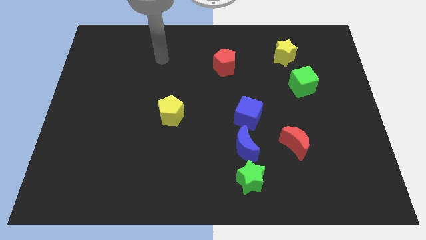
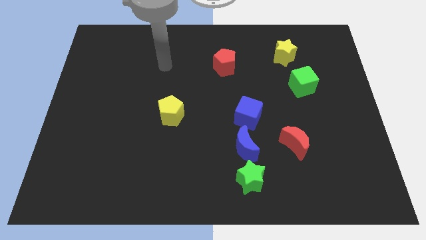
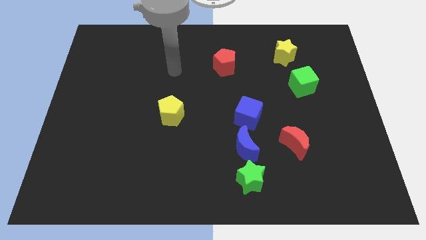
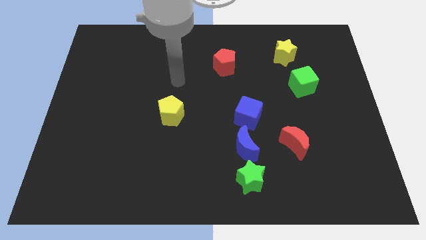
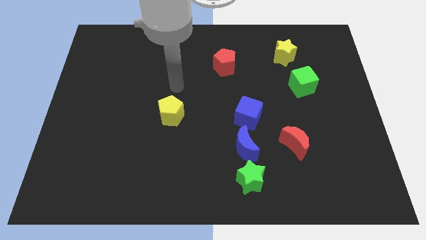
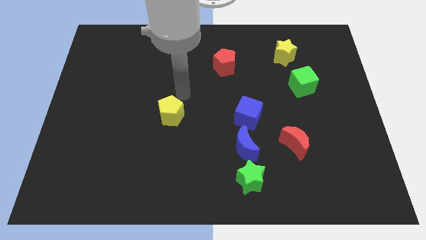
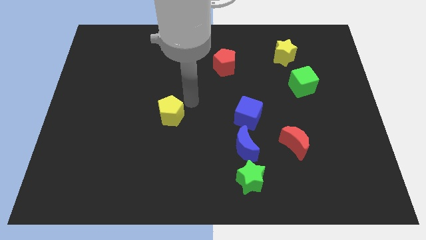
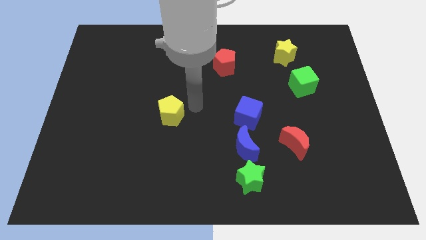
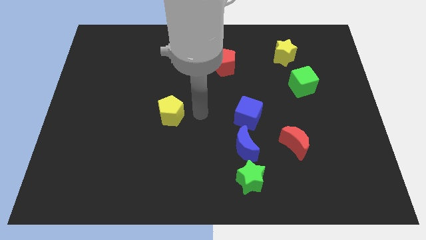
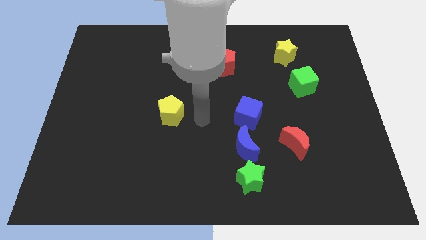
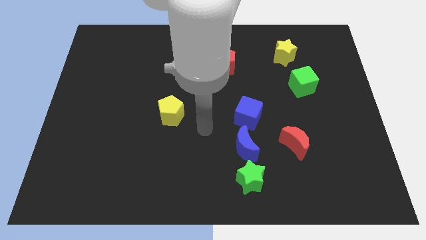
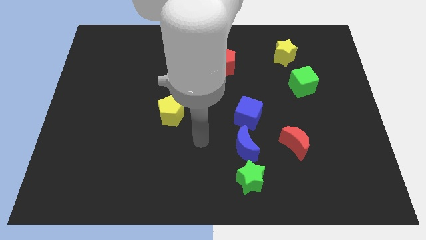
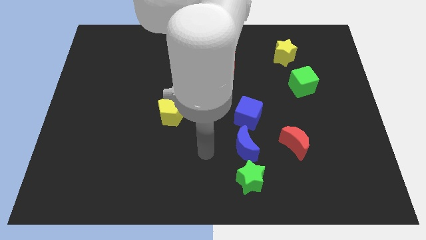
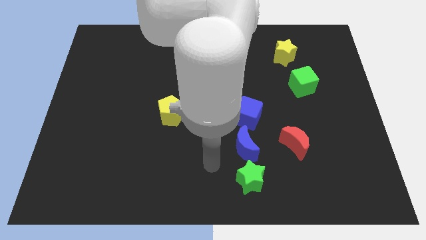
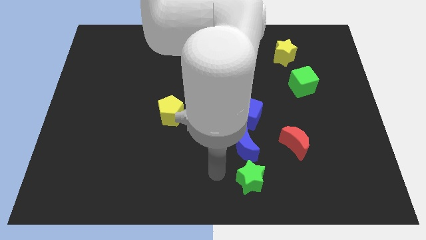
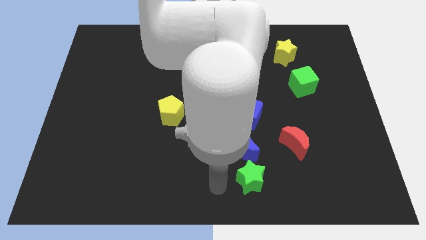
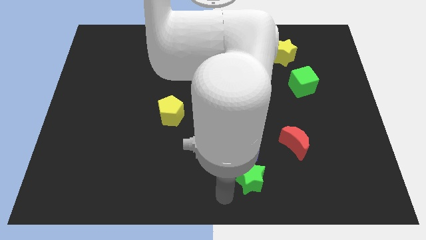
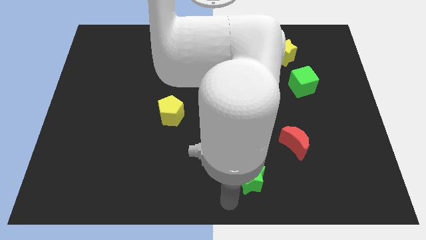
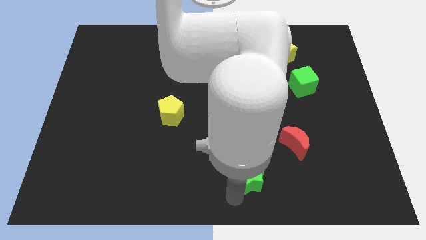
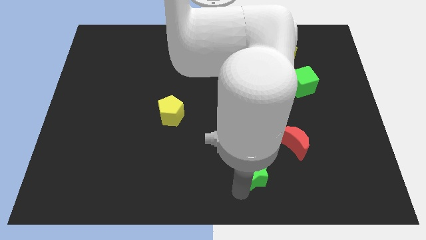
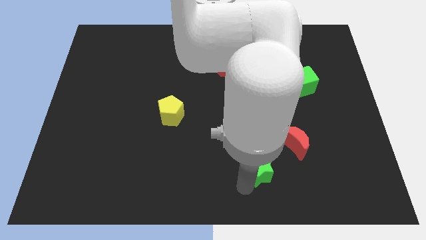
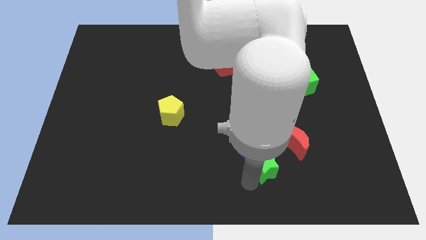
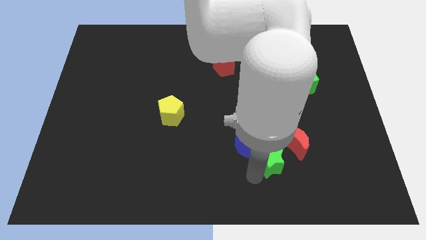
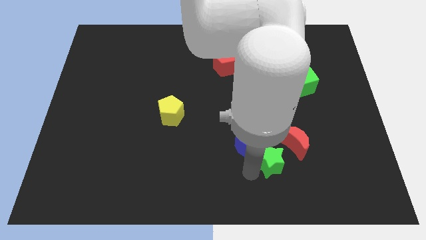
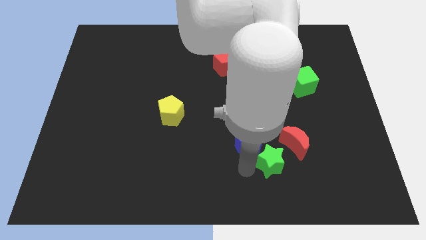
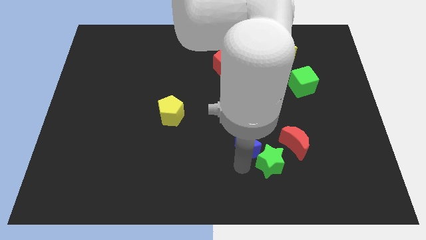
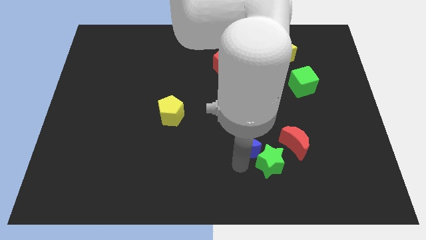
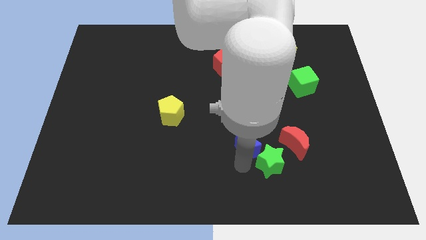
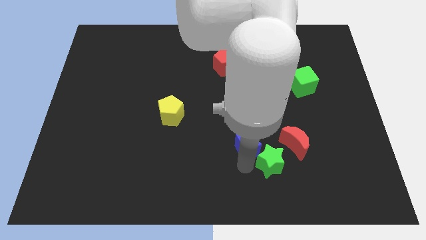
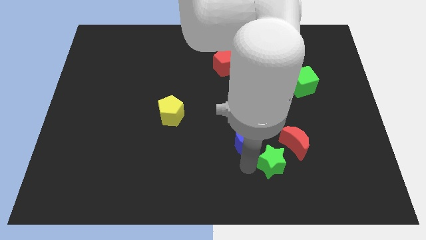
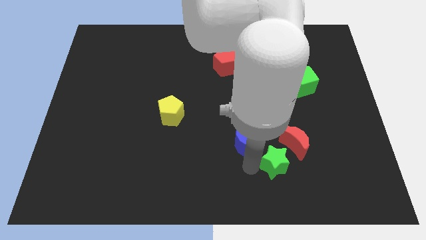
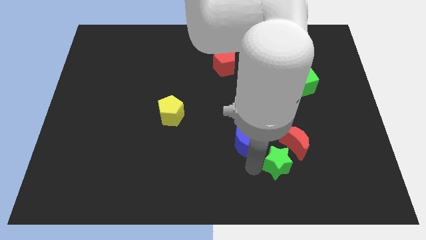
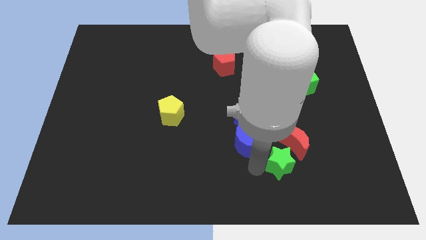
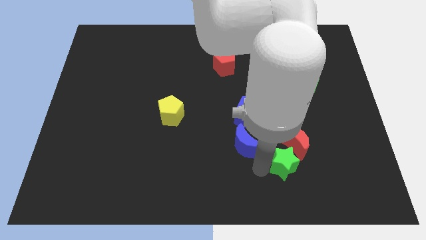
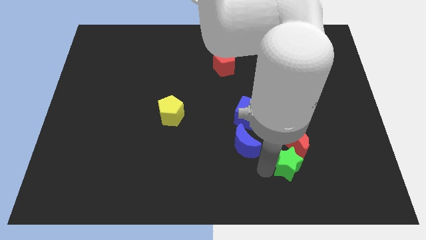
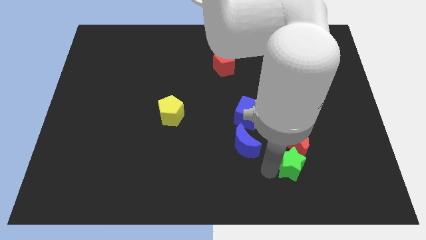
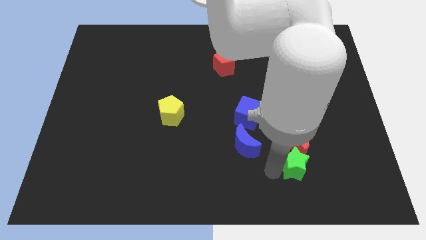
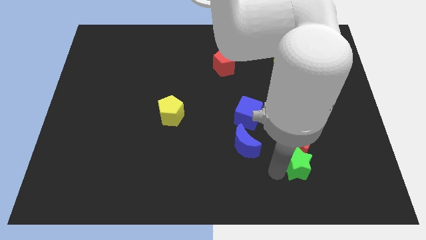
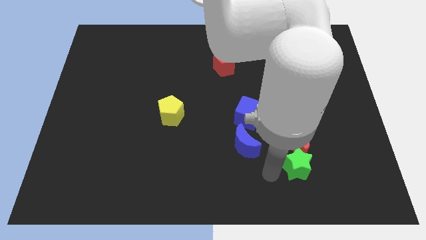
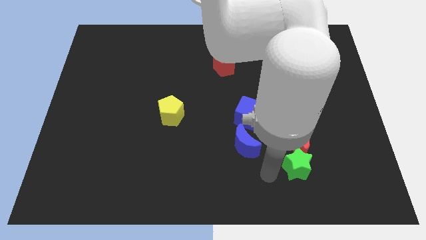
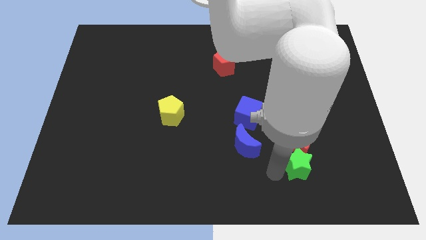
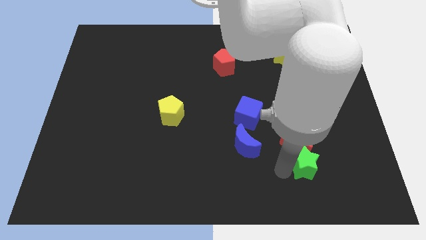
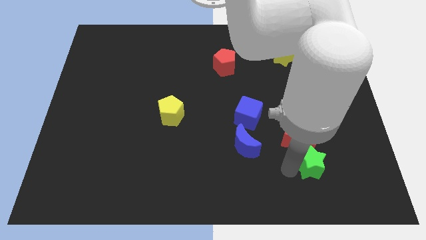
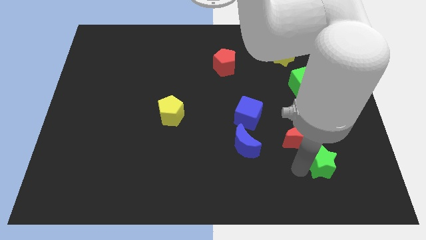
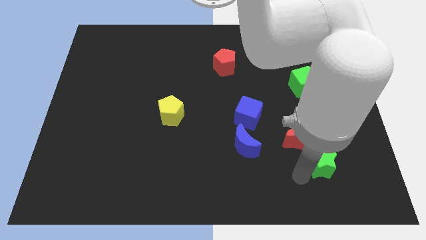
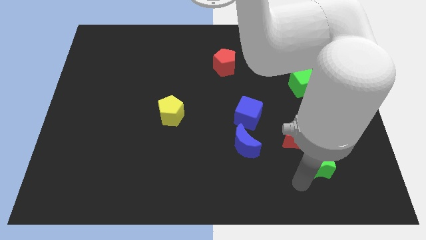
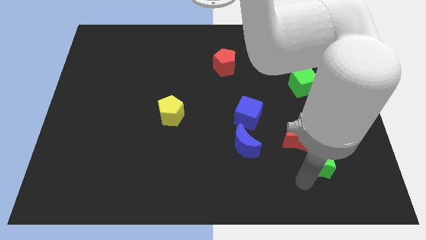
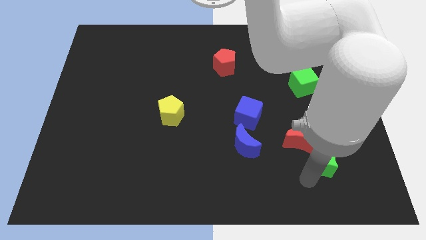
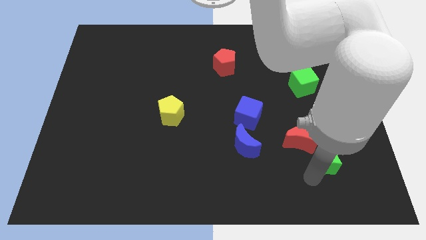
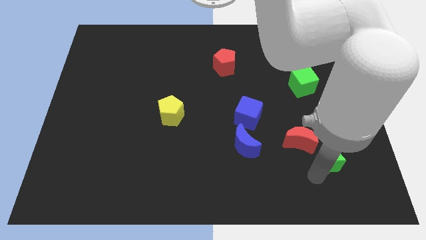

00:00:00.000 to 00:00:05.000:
slide the green star to the right of the red moon

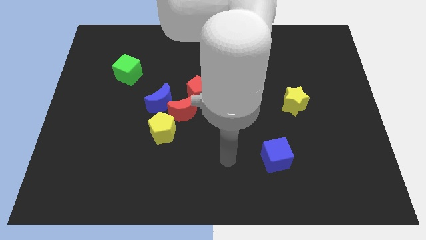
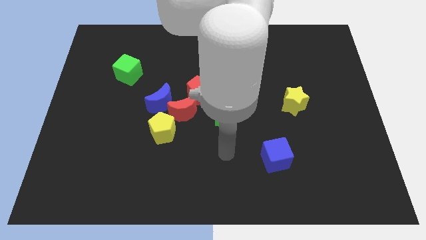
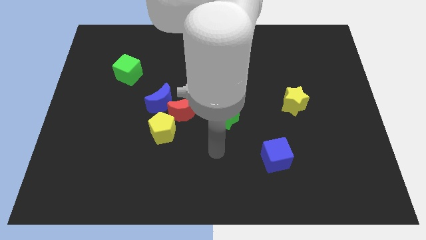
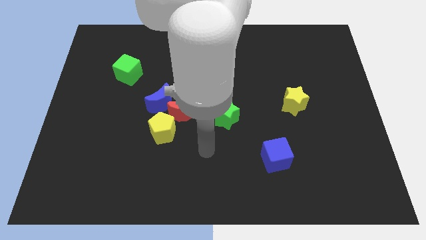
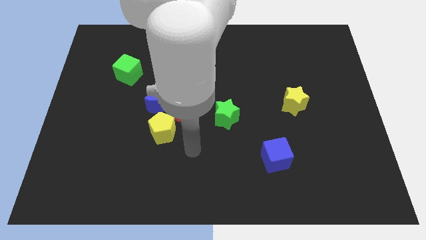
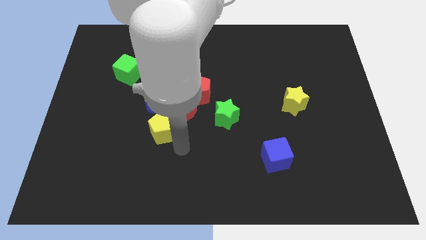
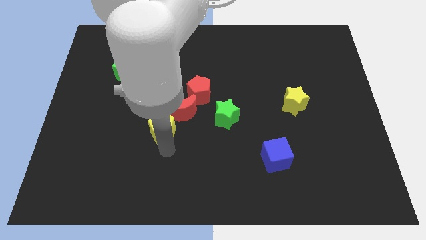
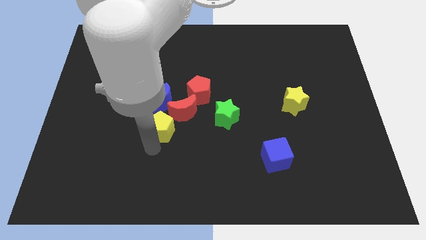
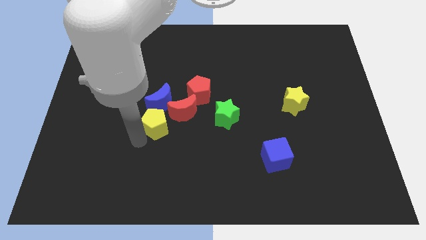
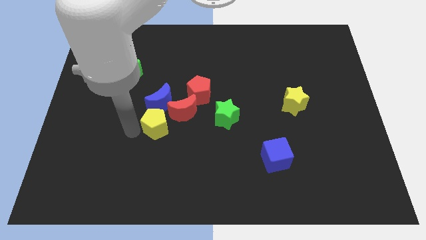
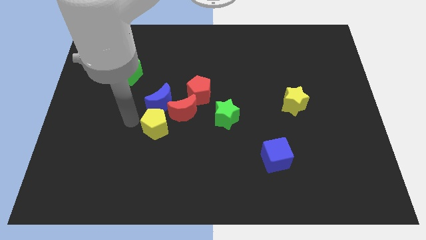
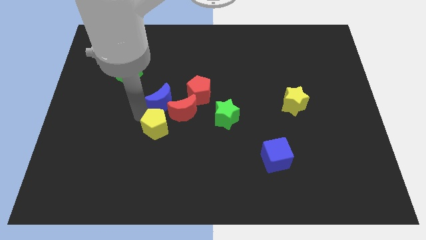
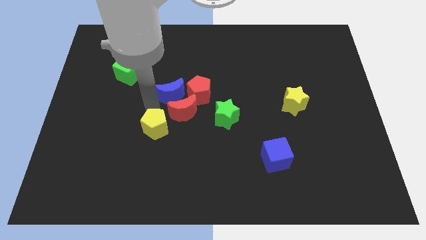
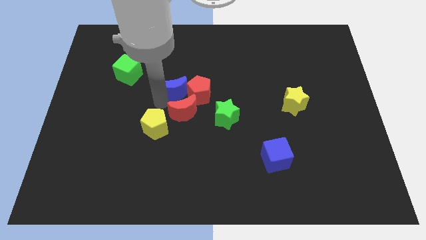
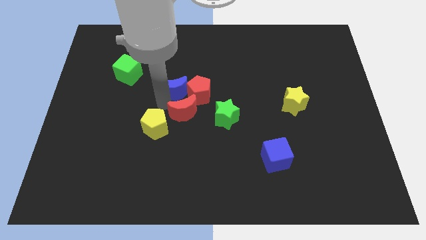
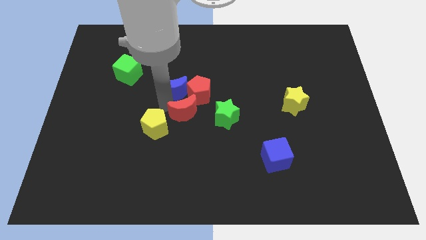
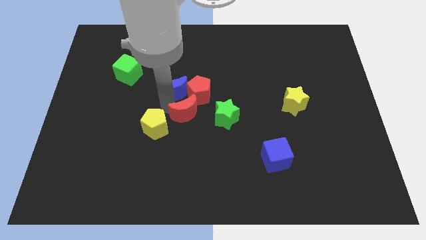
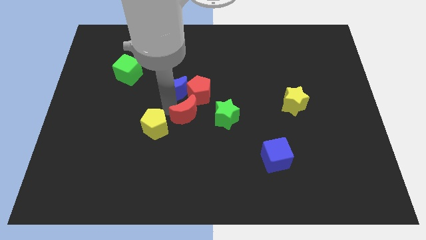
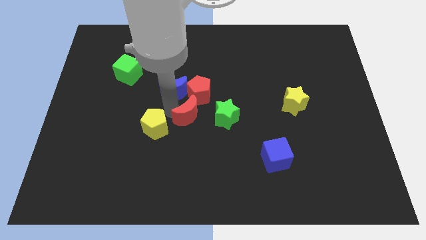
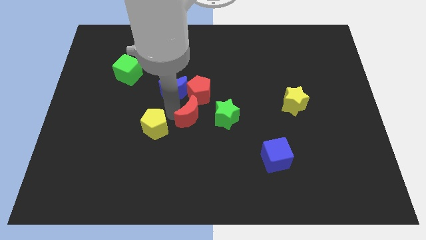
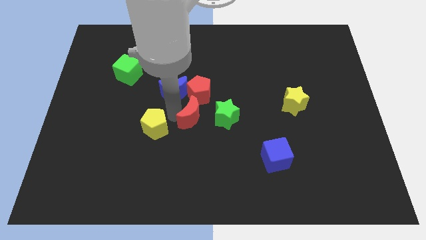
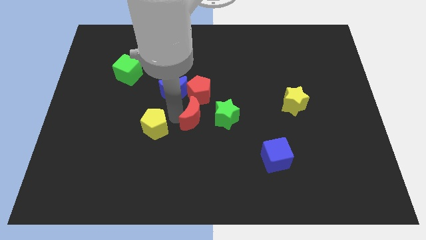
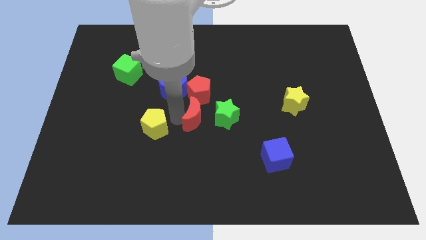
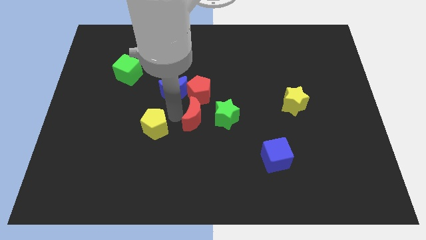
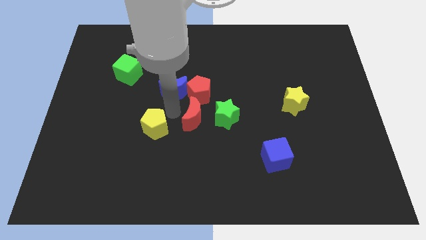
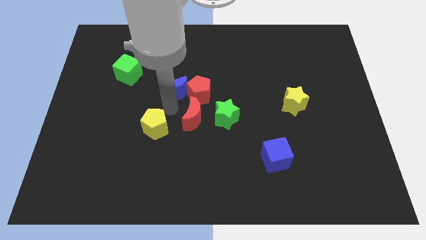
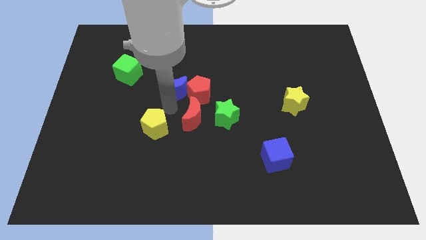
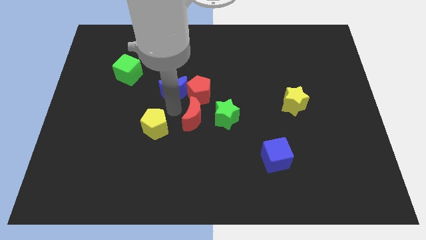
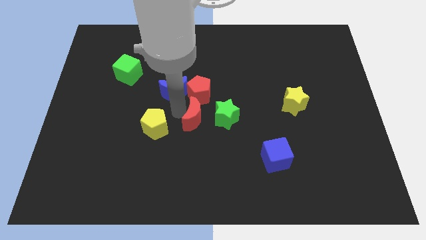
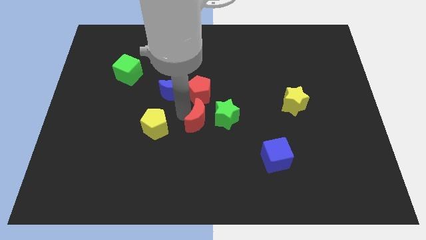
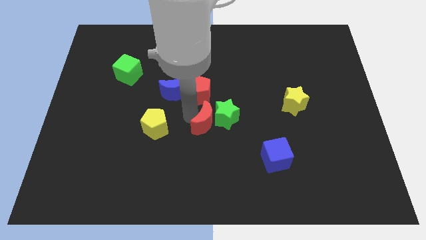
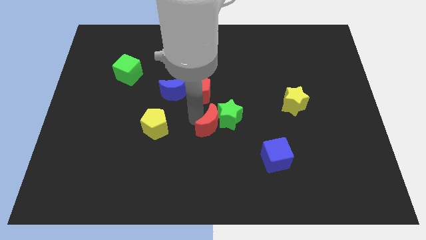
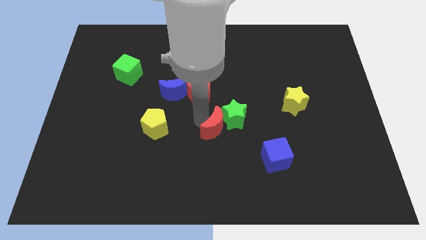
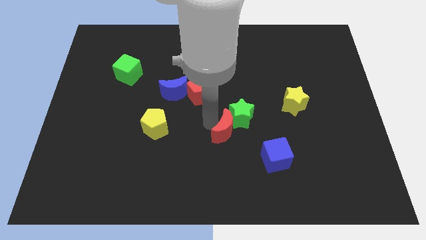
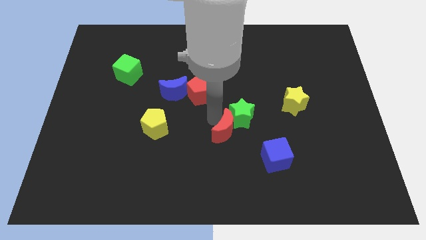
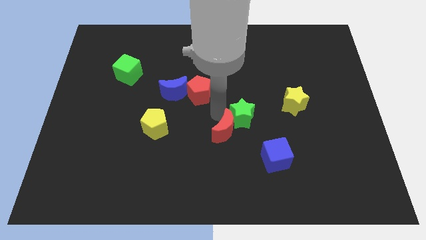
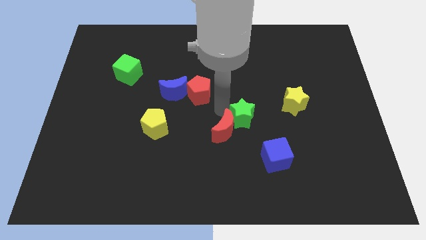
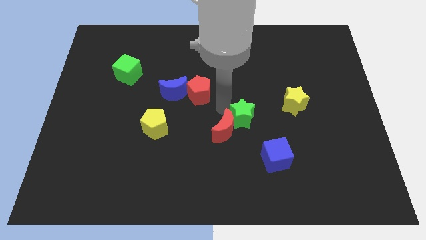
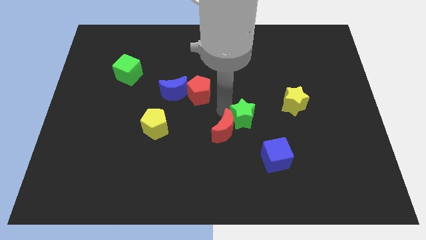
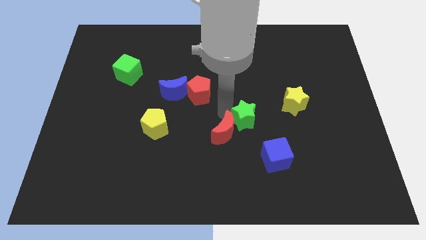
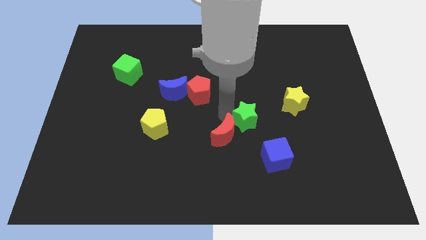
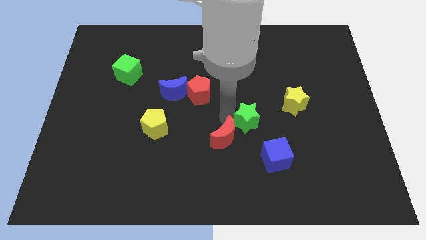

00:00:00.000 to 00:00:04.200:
move the red moon left of the blue cube
